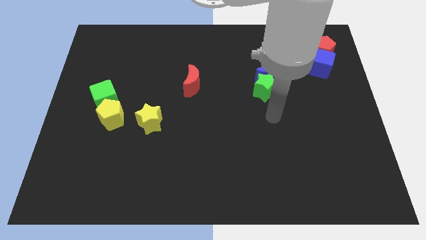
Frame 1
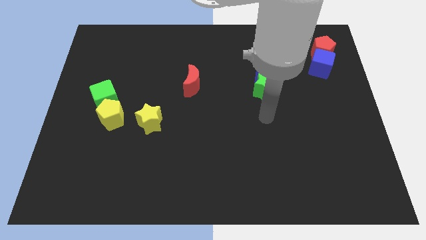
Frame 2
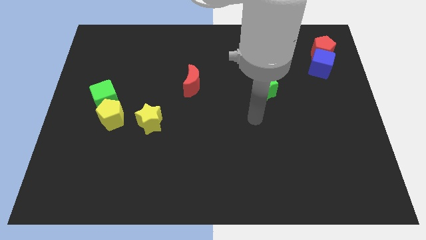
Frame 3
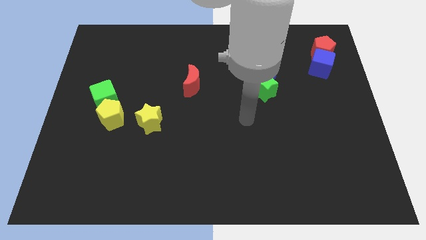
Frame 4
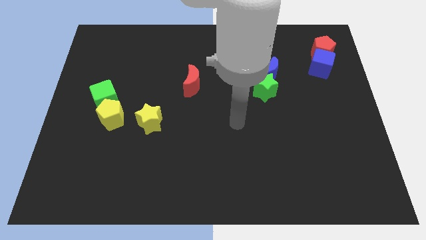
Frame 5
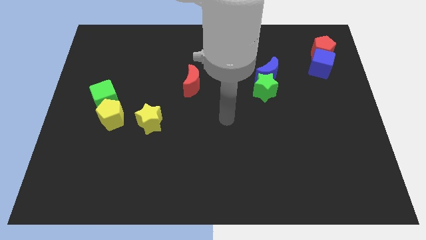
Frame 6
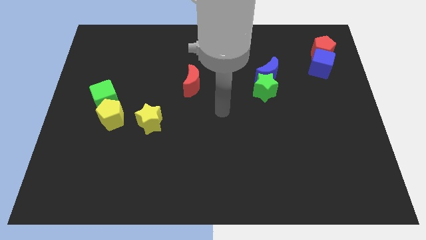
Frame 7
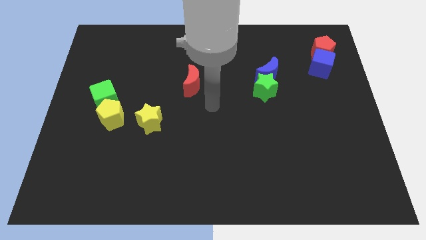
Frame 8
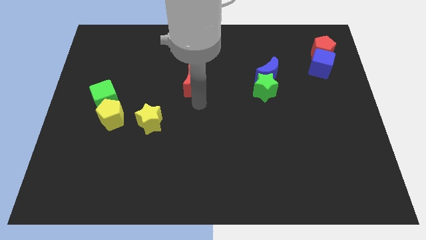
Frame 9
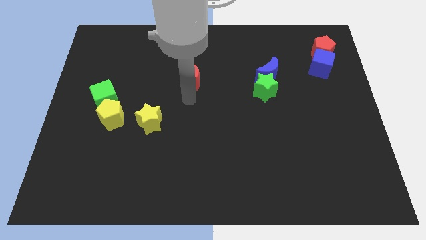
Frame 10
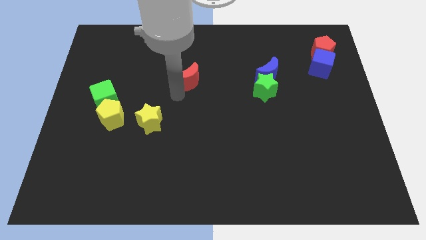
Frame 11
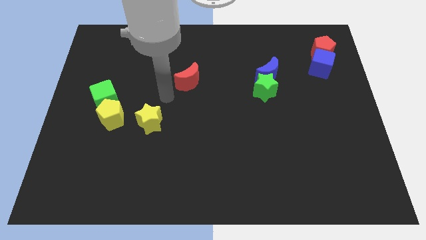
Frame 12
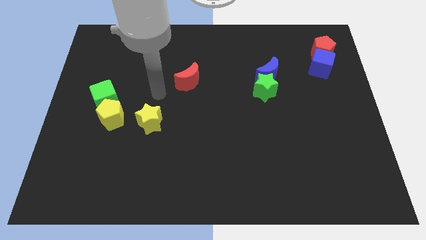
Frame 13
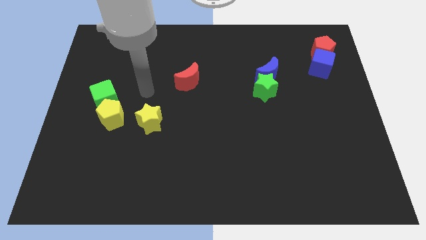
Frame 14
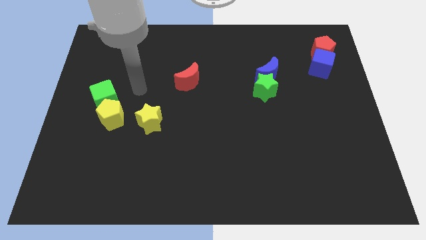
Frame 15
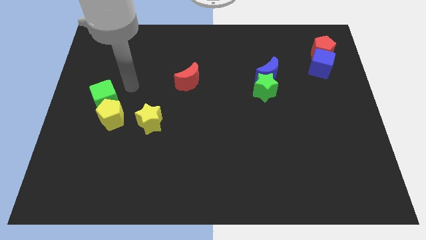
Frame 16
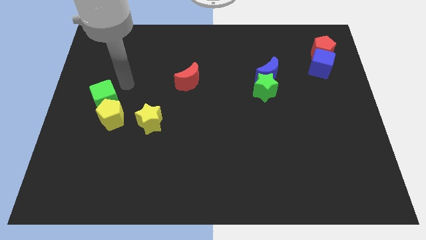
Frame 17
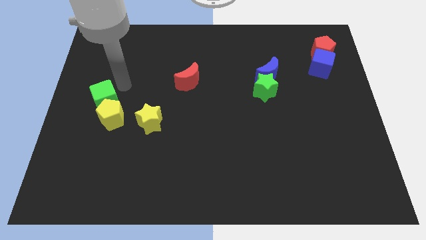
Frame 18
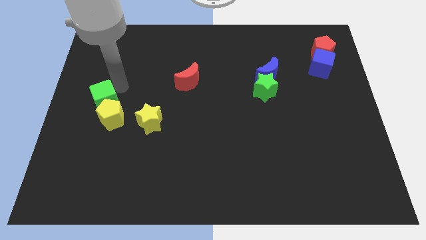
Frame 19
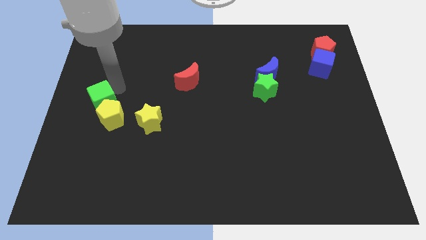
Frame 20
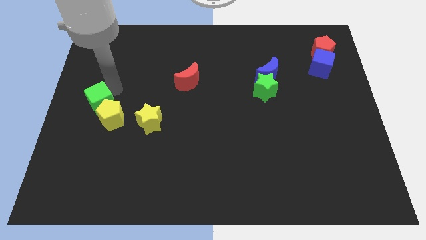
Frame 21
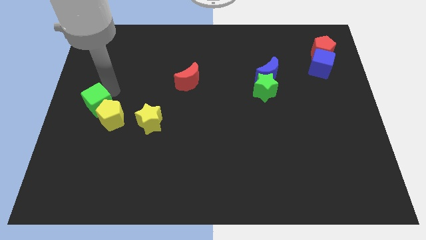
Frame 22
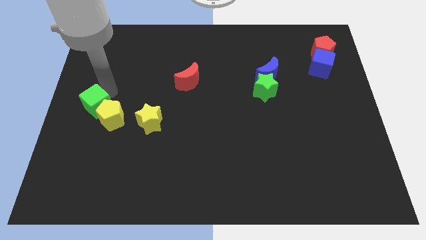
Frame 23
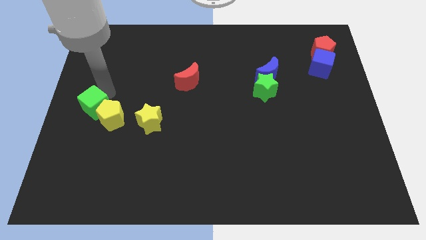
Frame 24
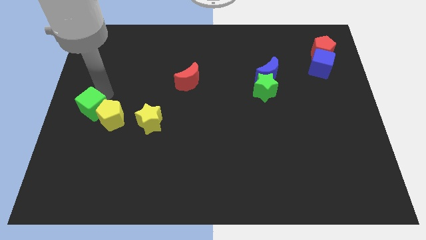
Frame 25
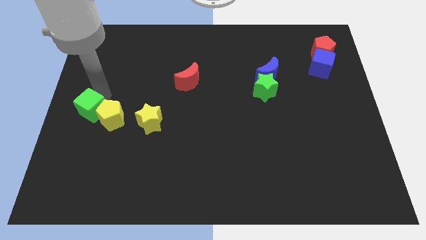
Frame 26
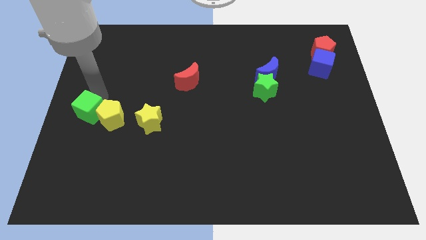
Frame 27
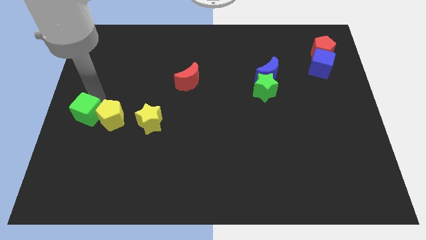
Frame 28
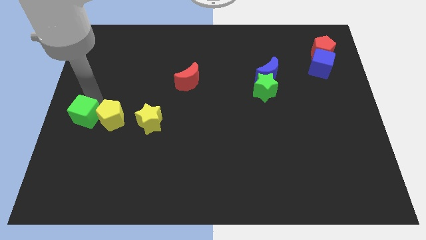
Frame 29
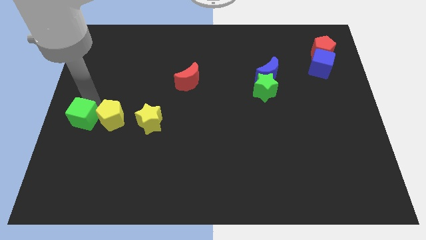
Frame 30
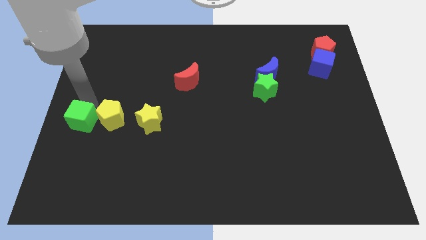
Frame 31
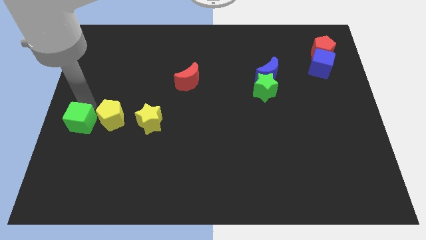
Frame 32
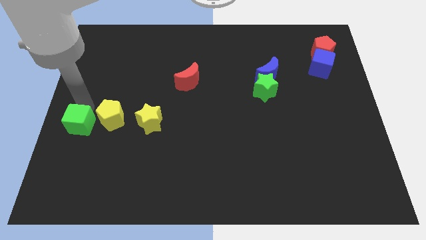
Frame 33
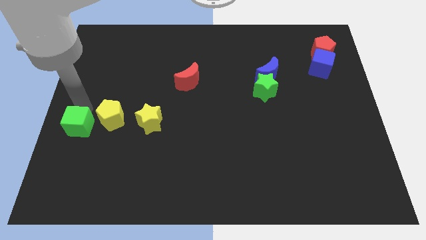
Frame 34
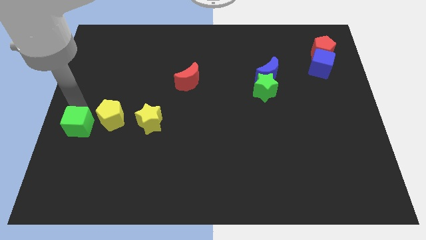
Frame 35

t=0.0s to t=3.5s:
slide the green cube down a little

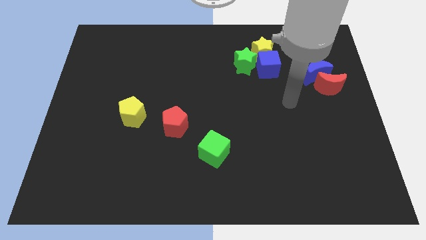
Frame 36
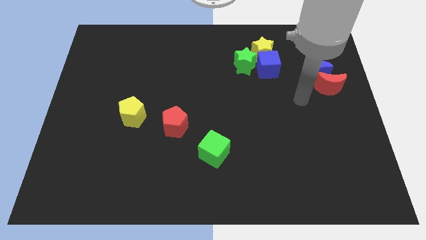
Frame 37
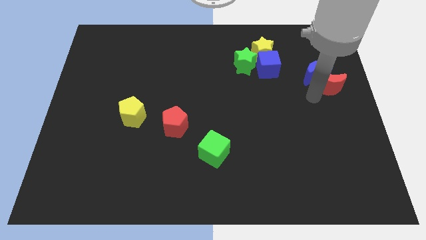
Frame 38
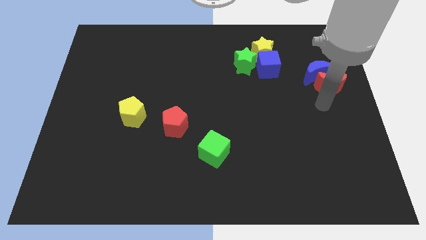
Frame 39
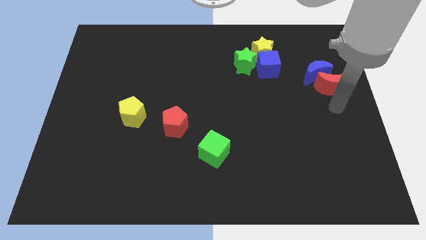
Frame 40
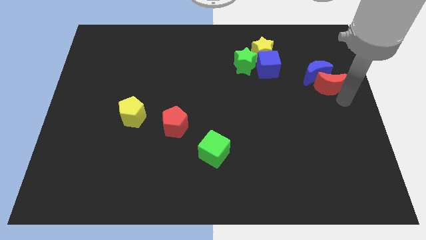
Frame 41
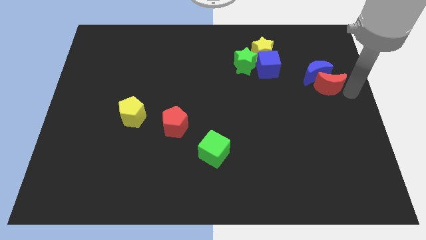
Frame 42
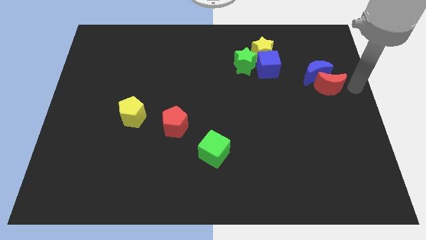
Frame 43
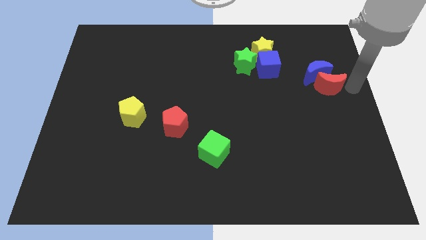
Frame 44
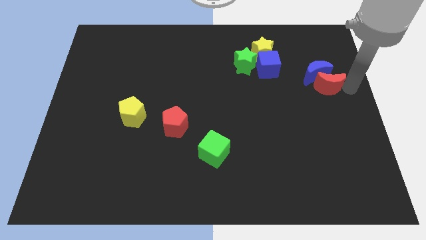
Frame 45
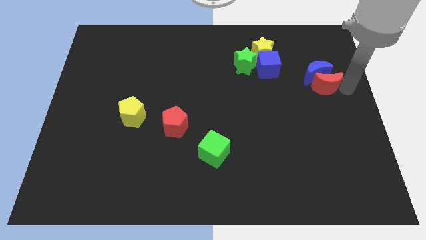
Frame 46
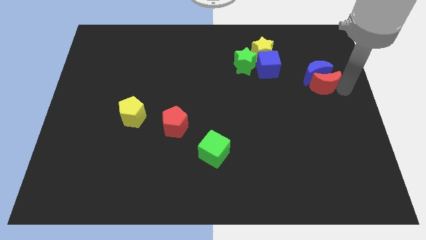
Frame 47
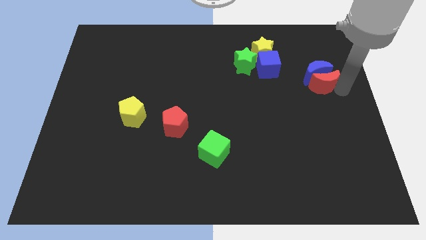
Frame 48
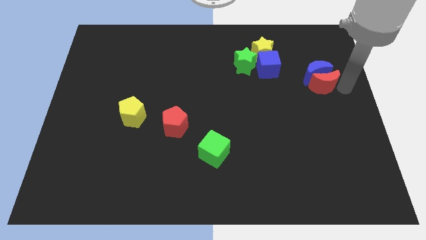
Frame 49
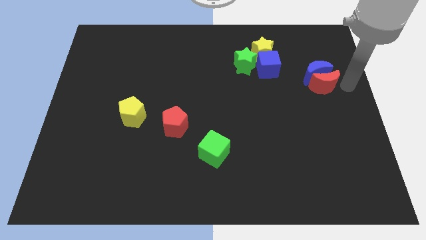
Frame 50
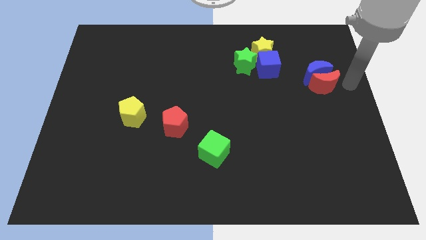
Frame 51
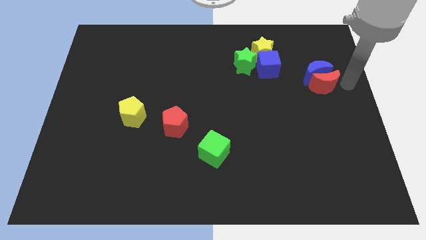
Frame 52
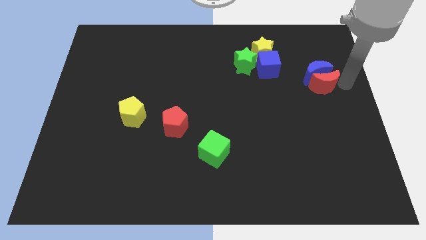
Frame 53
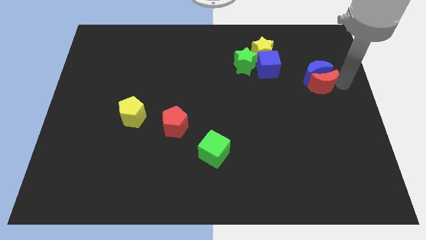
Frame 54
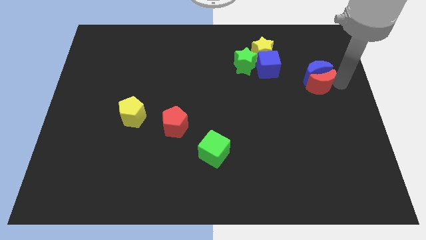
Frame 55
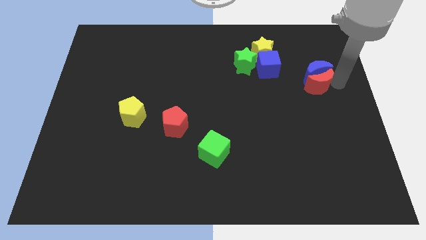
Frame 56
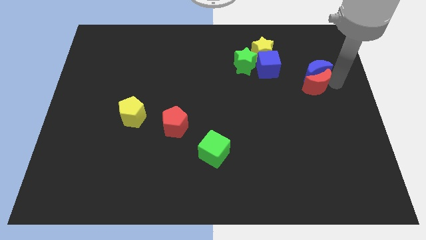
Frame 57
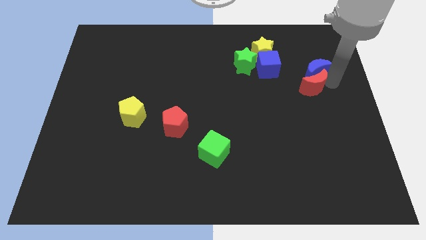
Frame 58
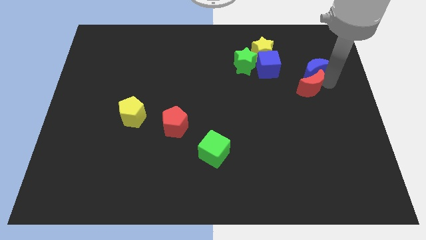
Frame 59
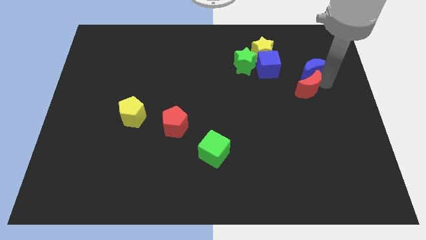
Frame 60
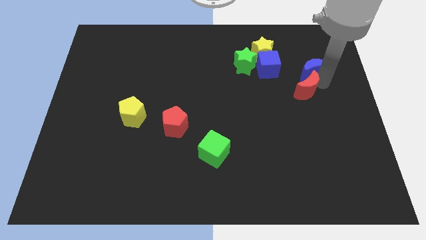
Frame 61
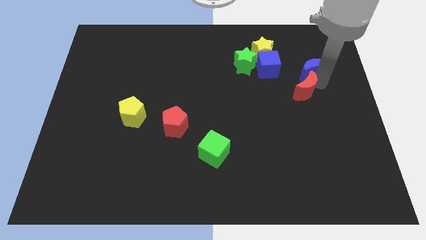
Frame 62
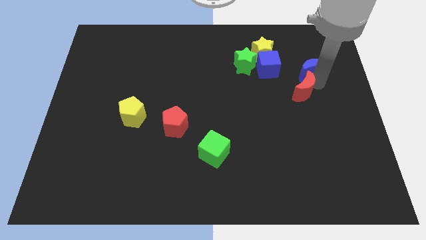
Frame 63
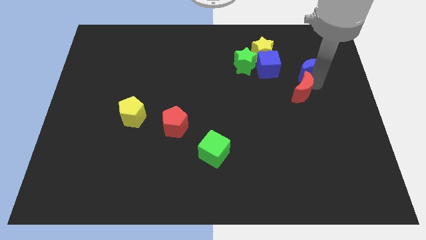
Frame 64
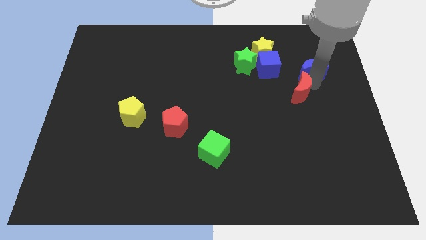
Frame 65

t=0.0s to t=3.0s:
move the red moon a little bit left

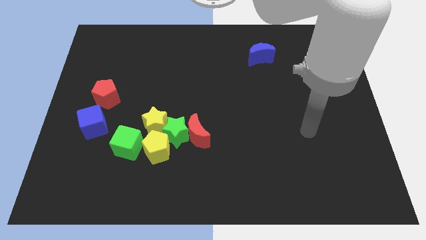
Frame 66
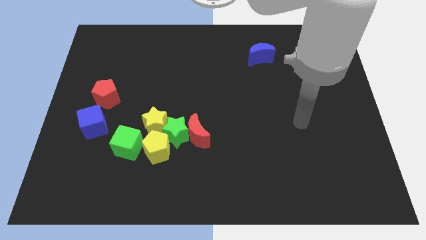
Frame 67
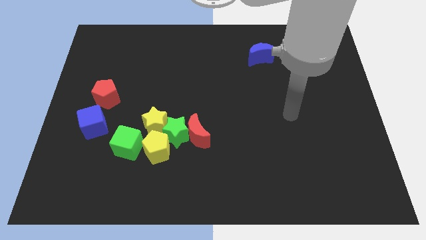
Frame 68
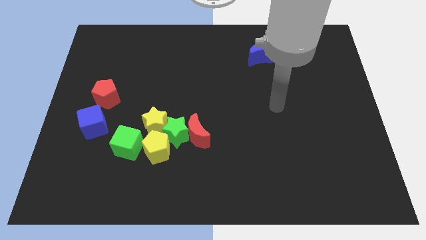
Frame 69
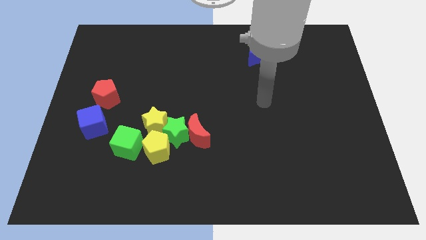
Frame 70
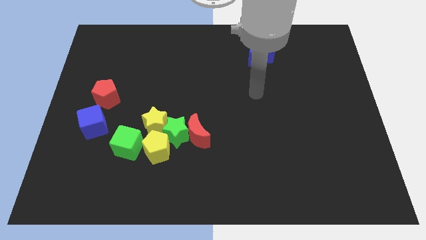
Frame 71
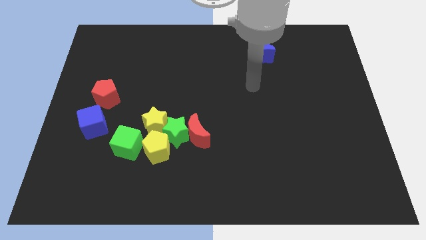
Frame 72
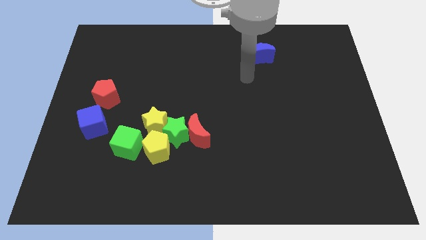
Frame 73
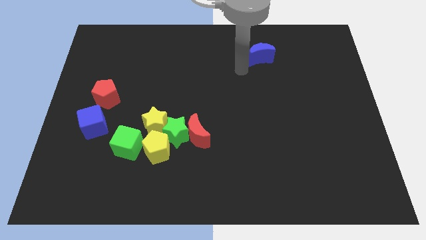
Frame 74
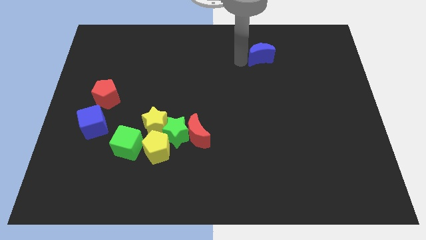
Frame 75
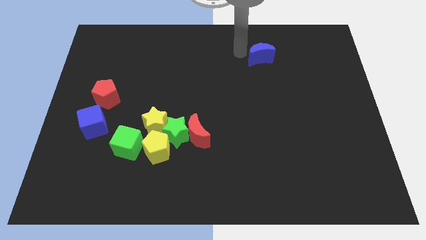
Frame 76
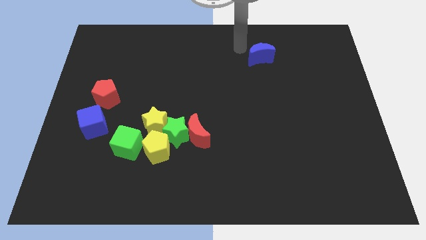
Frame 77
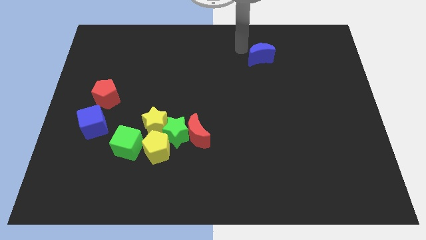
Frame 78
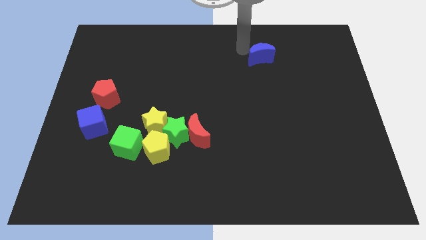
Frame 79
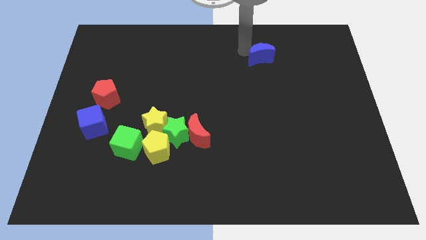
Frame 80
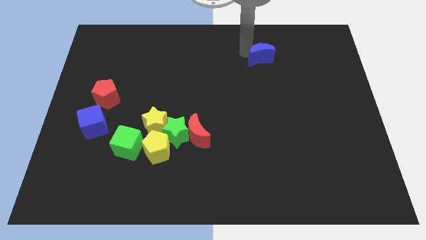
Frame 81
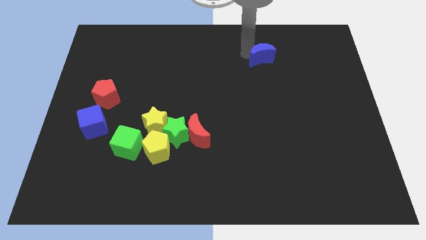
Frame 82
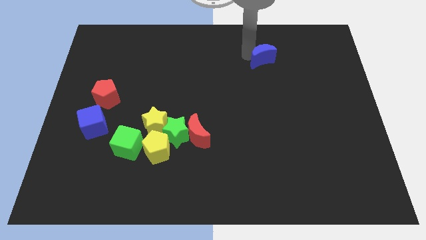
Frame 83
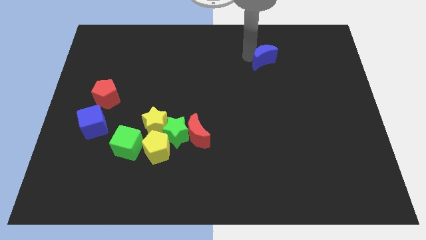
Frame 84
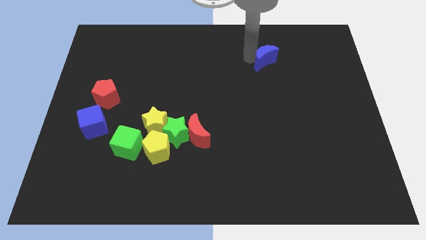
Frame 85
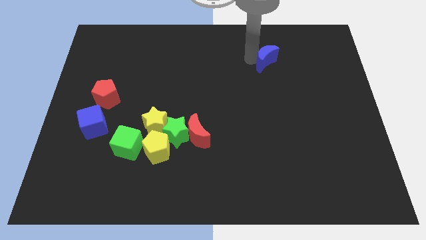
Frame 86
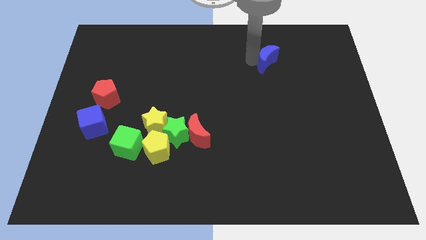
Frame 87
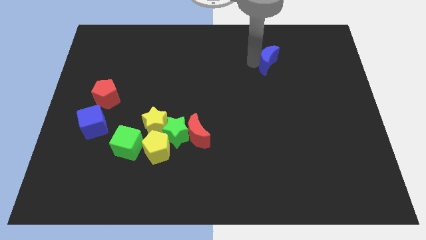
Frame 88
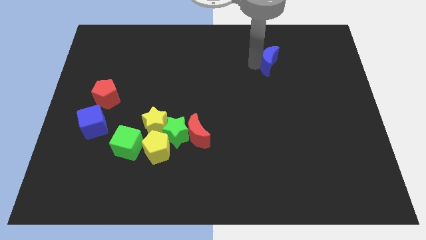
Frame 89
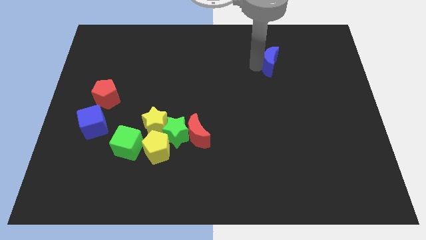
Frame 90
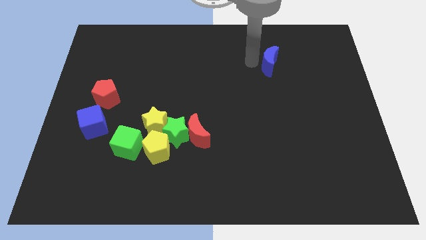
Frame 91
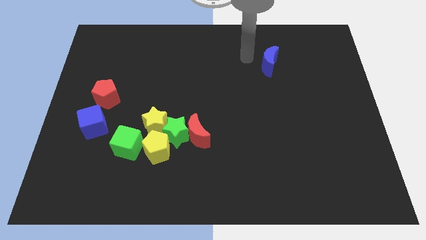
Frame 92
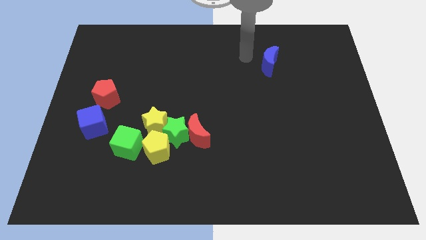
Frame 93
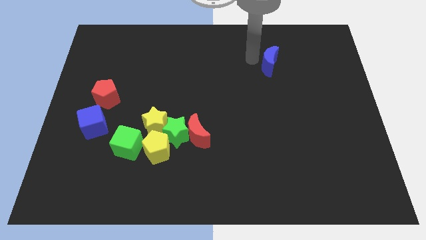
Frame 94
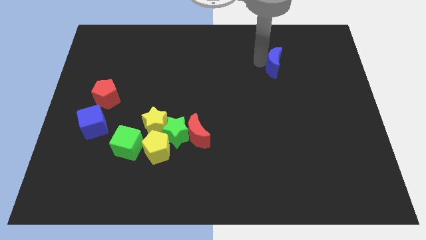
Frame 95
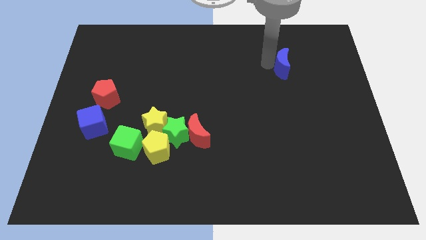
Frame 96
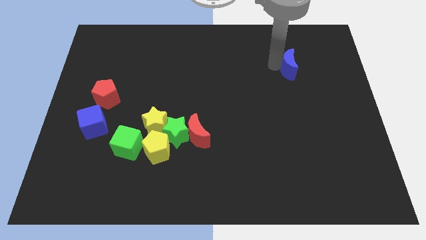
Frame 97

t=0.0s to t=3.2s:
push the blue moon somewhat downwards and then to the right
